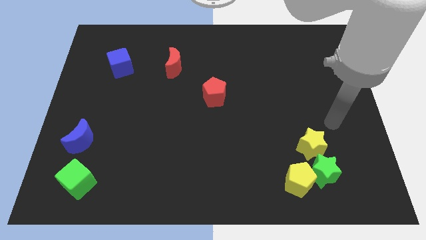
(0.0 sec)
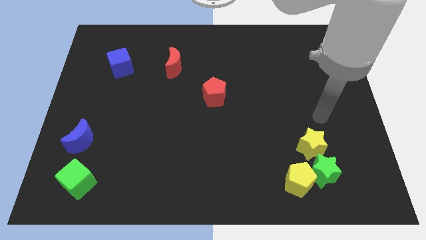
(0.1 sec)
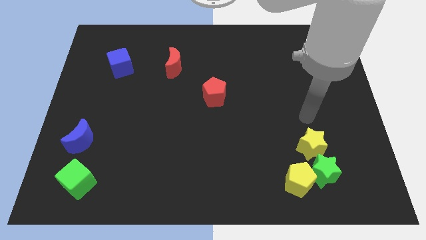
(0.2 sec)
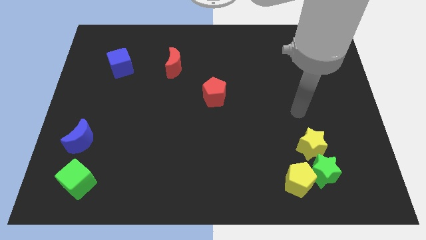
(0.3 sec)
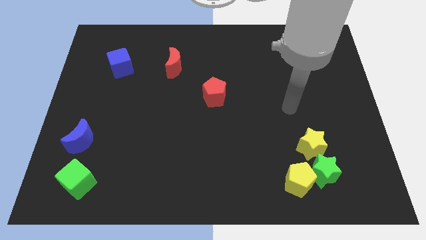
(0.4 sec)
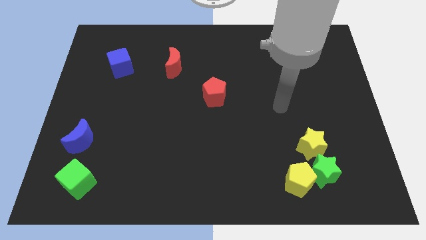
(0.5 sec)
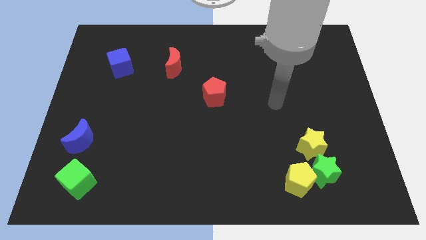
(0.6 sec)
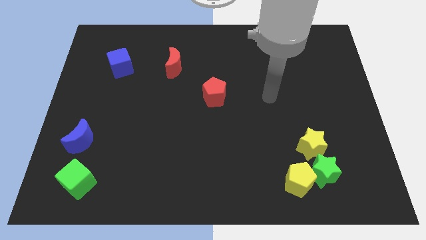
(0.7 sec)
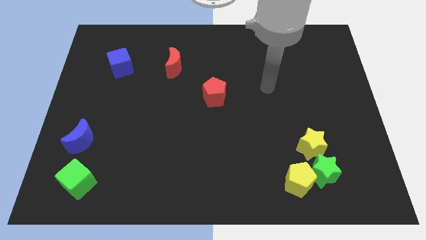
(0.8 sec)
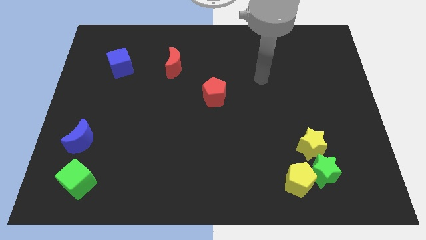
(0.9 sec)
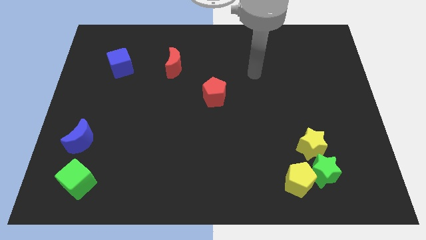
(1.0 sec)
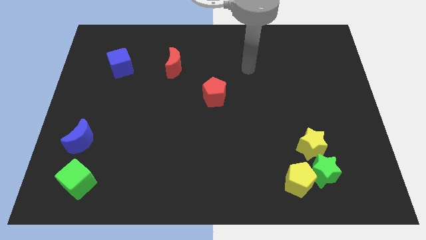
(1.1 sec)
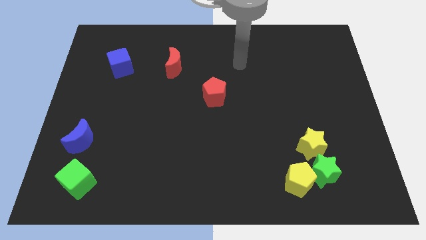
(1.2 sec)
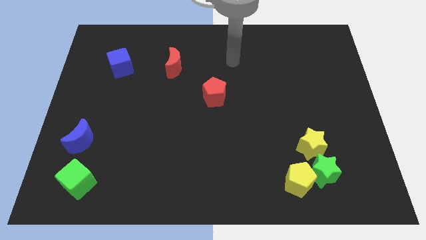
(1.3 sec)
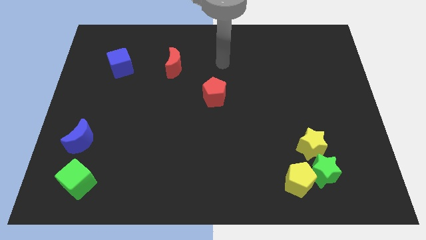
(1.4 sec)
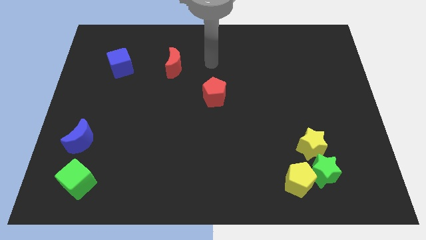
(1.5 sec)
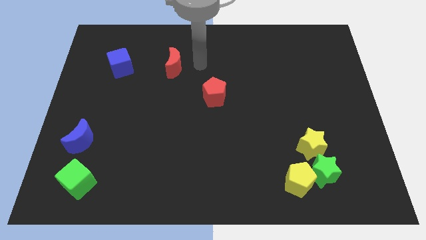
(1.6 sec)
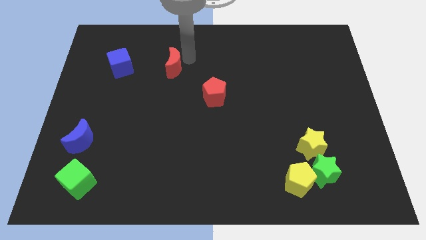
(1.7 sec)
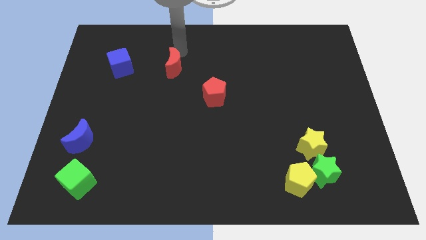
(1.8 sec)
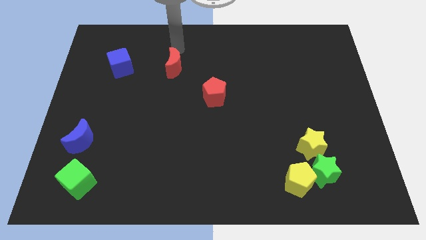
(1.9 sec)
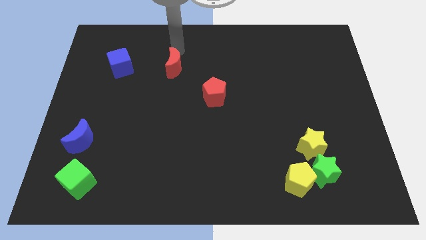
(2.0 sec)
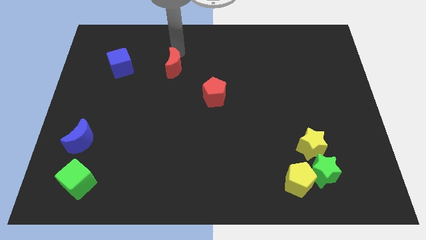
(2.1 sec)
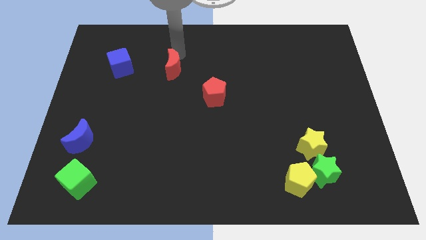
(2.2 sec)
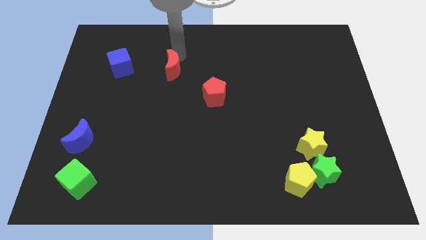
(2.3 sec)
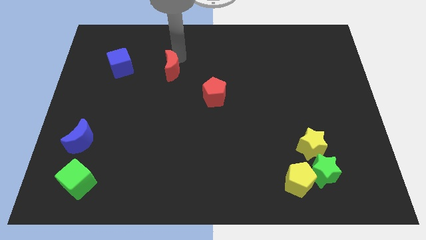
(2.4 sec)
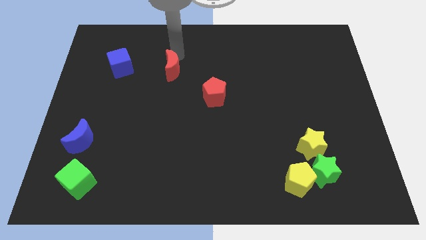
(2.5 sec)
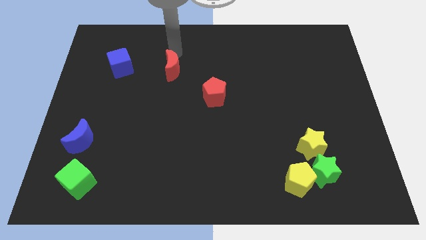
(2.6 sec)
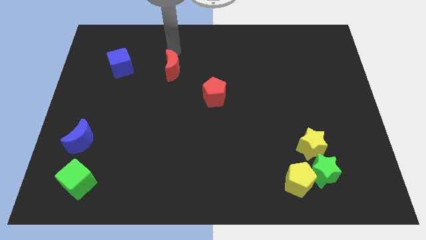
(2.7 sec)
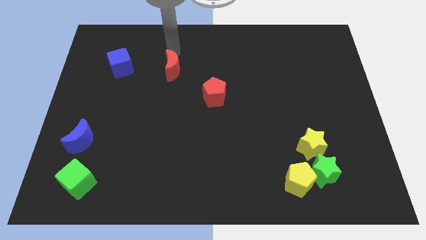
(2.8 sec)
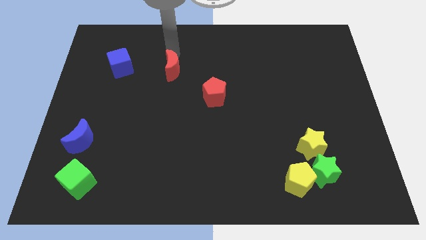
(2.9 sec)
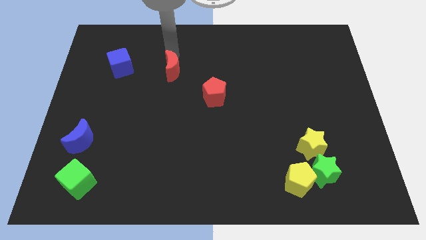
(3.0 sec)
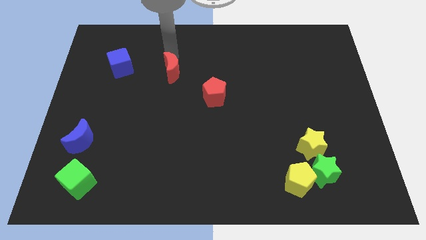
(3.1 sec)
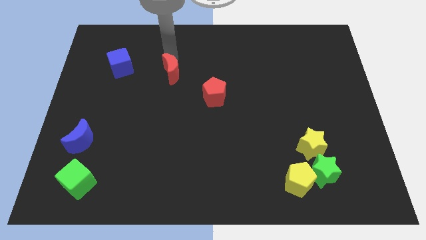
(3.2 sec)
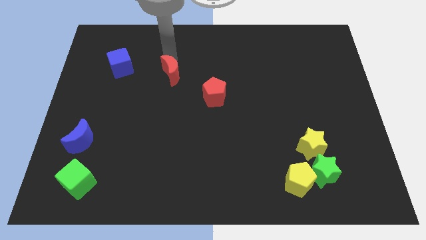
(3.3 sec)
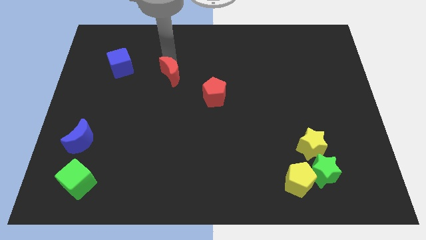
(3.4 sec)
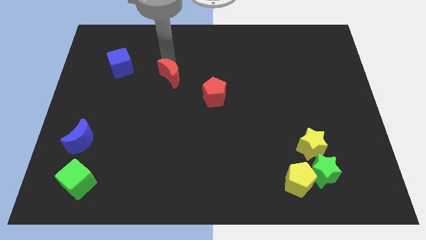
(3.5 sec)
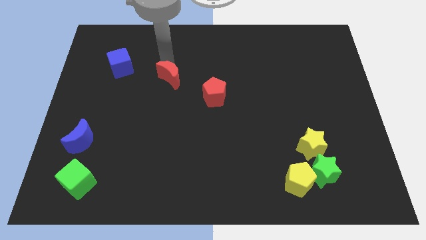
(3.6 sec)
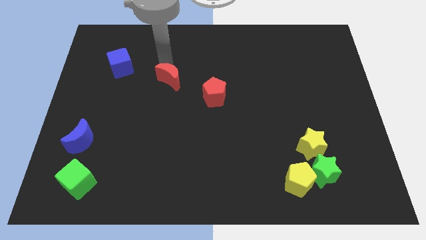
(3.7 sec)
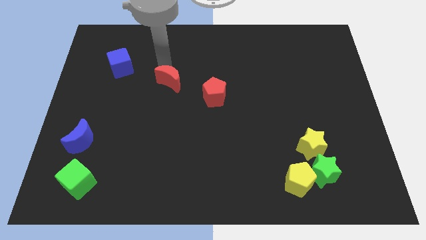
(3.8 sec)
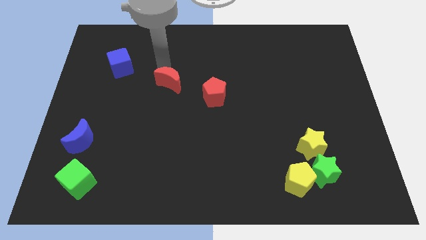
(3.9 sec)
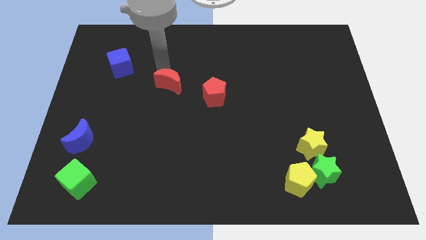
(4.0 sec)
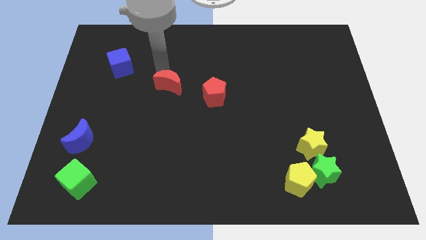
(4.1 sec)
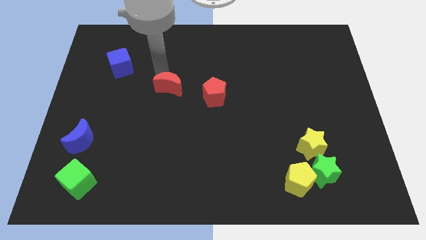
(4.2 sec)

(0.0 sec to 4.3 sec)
push the red moon slightly downwards

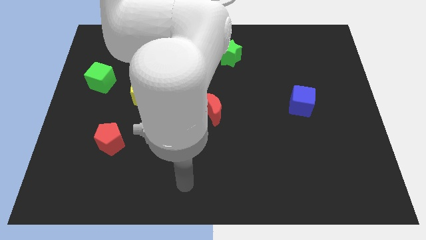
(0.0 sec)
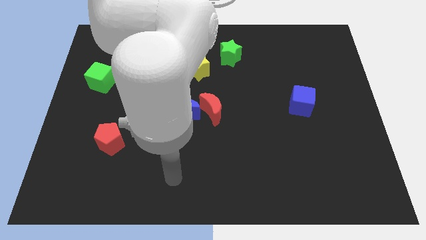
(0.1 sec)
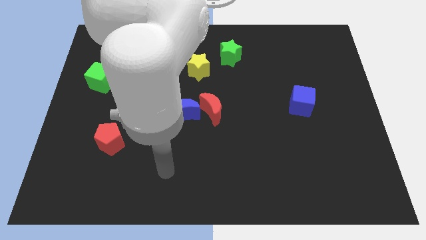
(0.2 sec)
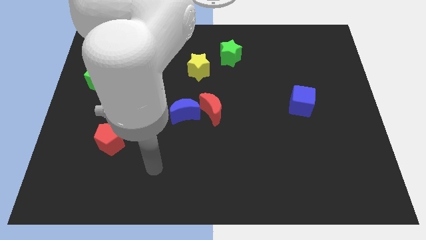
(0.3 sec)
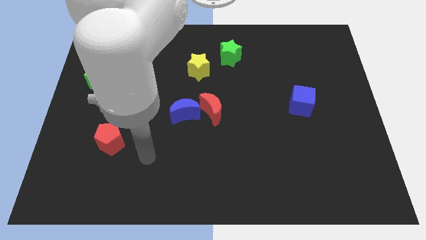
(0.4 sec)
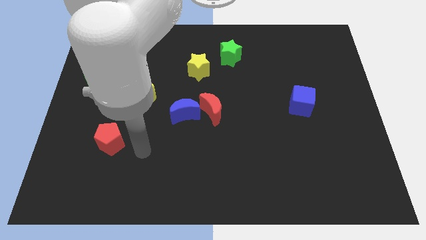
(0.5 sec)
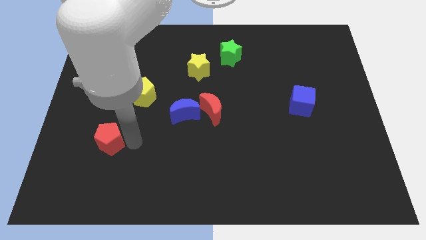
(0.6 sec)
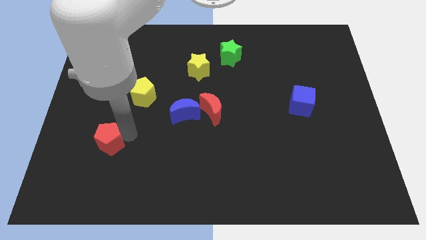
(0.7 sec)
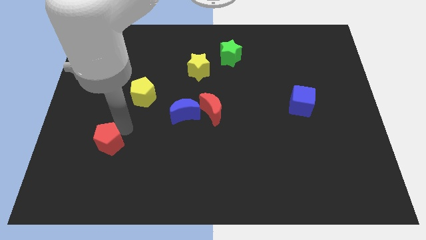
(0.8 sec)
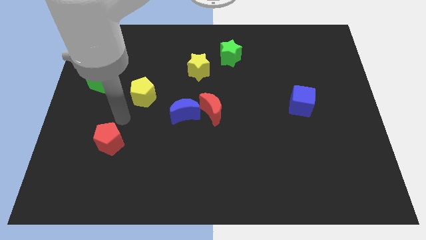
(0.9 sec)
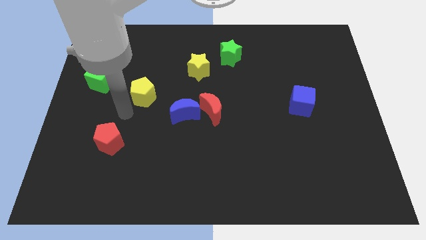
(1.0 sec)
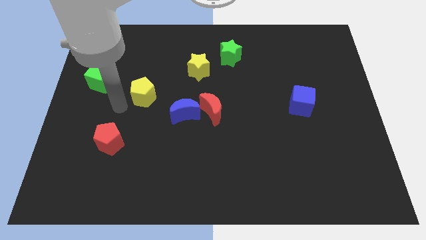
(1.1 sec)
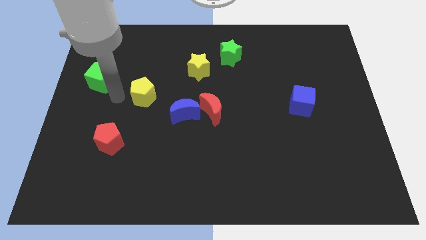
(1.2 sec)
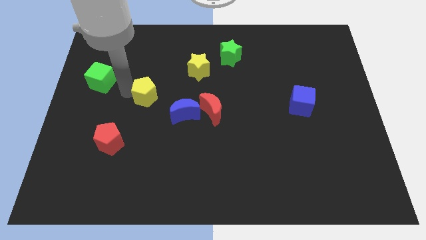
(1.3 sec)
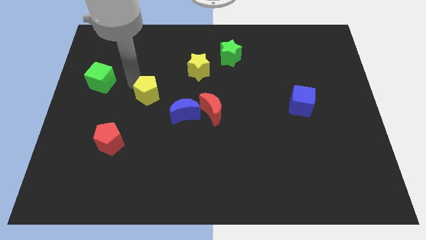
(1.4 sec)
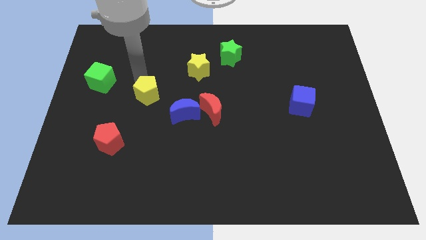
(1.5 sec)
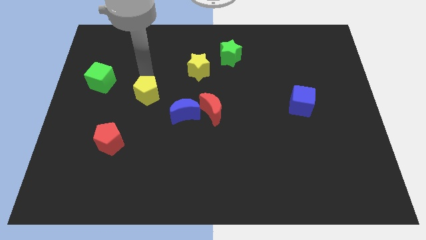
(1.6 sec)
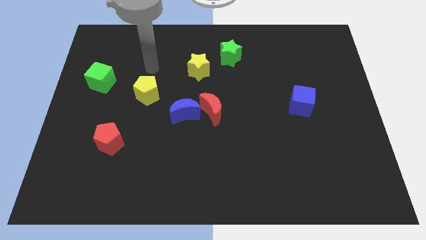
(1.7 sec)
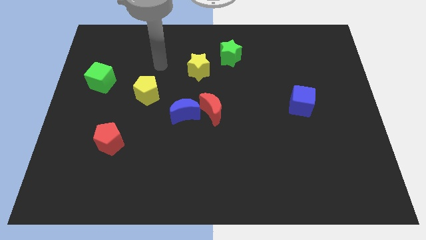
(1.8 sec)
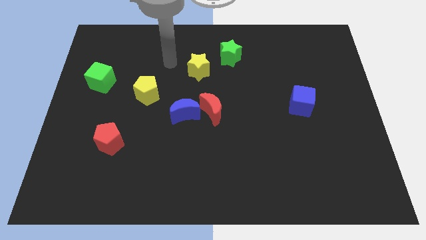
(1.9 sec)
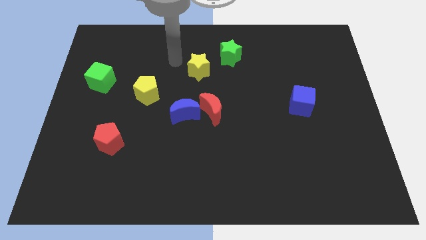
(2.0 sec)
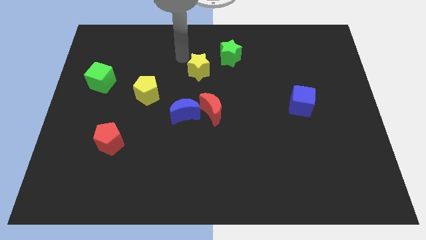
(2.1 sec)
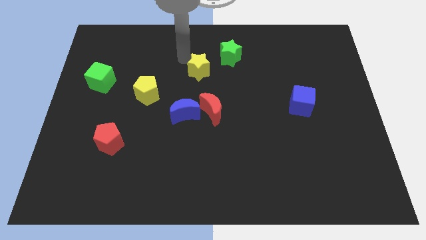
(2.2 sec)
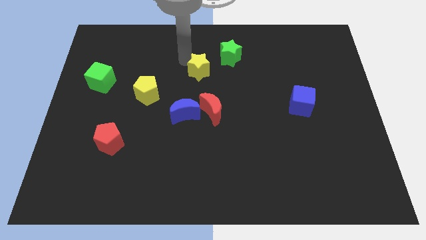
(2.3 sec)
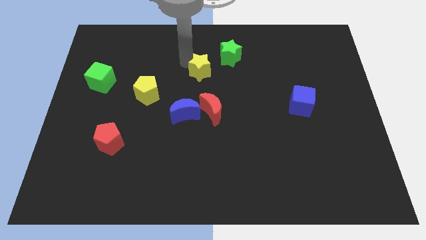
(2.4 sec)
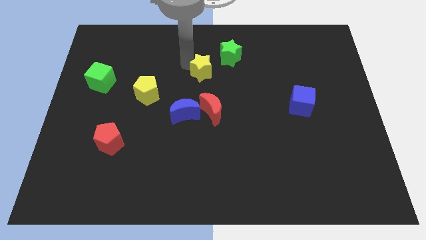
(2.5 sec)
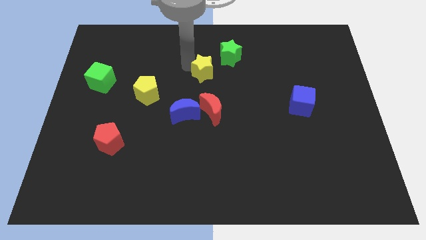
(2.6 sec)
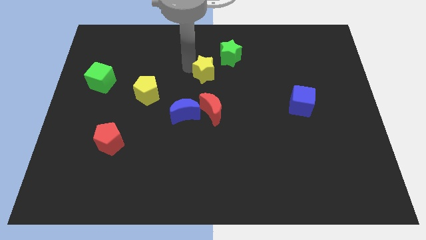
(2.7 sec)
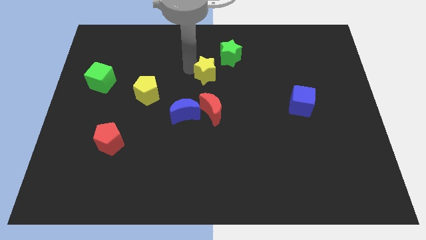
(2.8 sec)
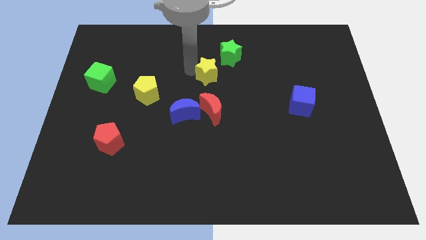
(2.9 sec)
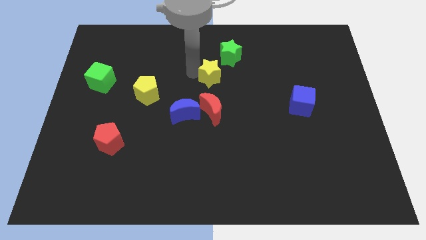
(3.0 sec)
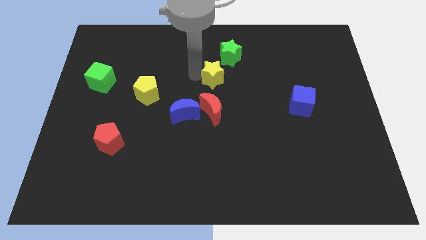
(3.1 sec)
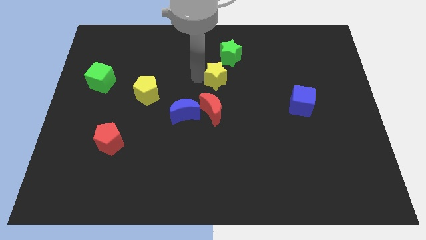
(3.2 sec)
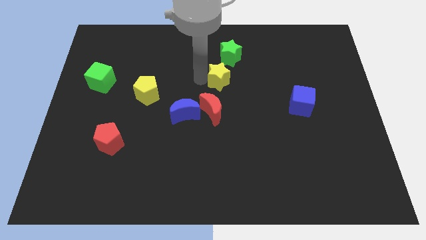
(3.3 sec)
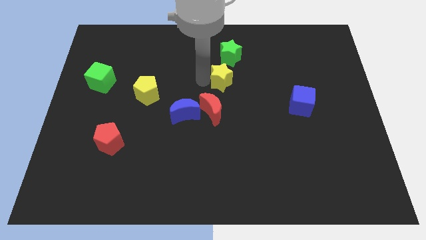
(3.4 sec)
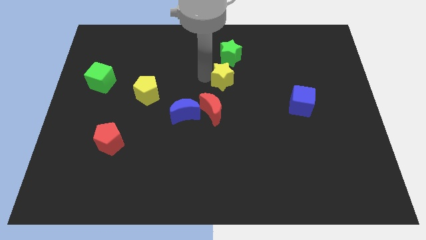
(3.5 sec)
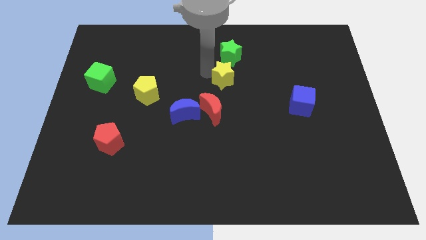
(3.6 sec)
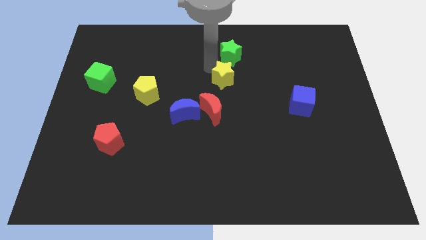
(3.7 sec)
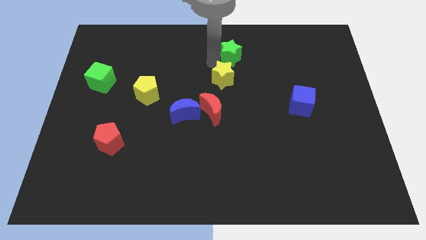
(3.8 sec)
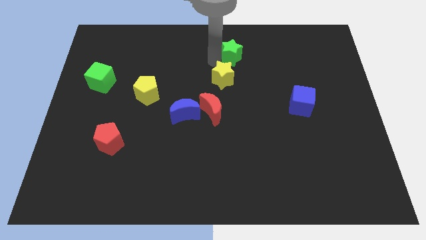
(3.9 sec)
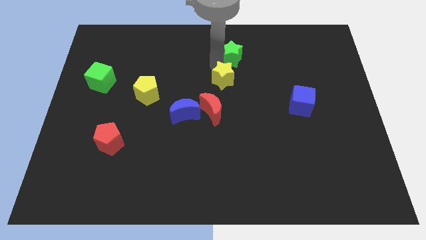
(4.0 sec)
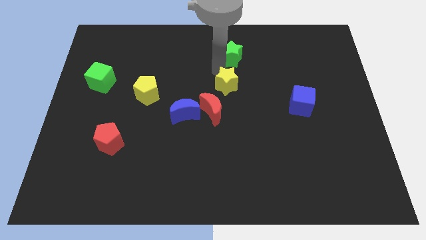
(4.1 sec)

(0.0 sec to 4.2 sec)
move the yellow star a bit diagonally downwards and to the right
